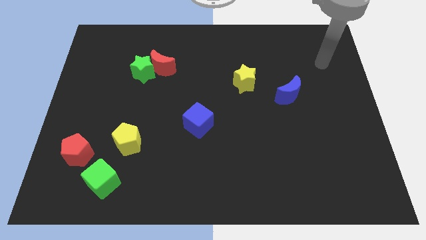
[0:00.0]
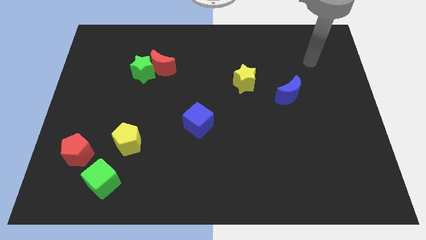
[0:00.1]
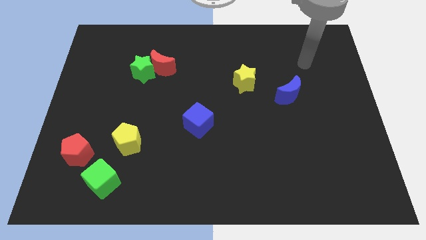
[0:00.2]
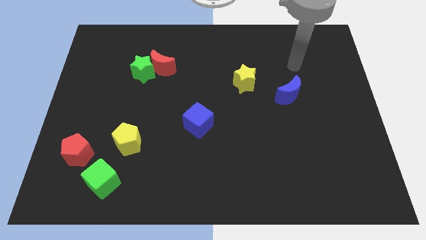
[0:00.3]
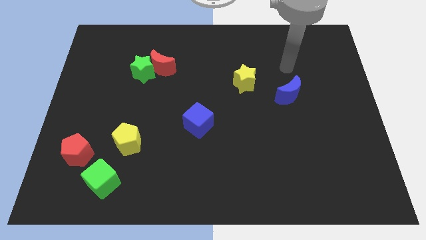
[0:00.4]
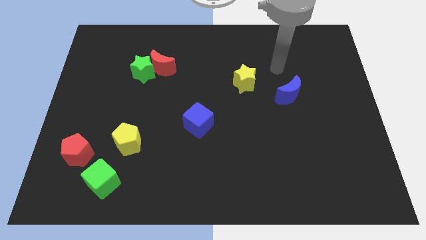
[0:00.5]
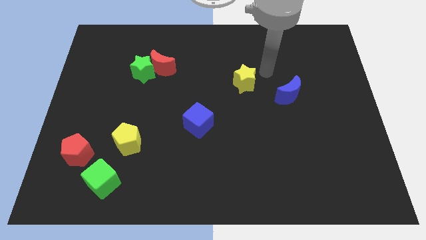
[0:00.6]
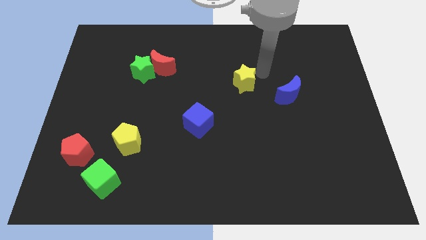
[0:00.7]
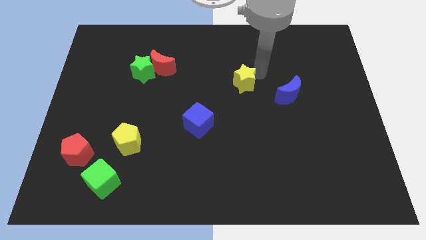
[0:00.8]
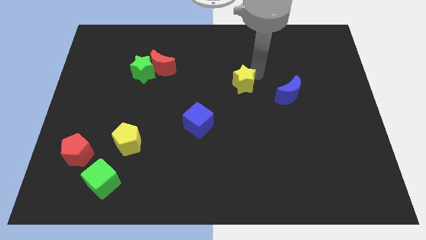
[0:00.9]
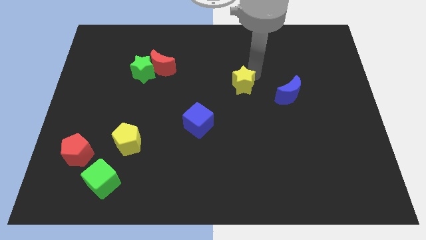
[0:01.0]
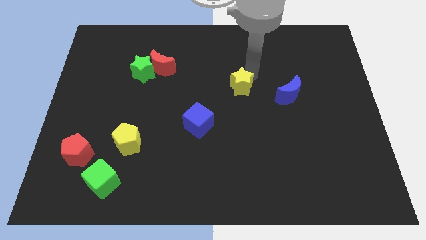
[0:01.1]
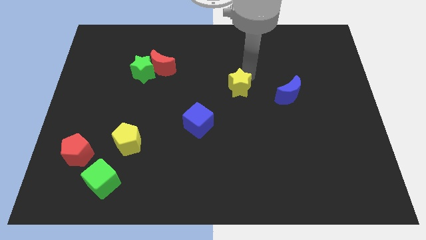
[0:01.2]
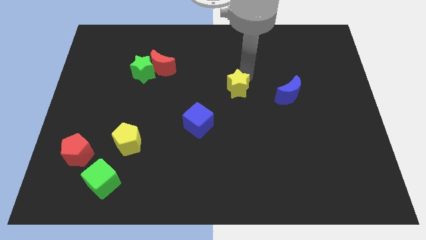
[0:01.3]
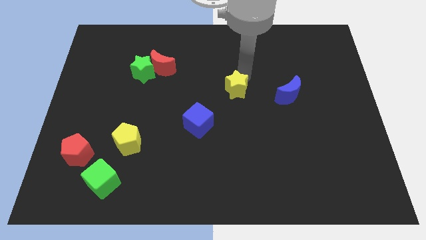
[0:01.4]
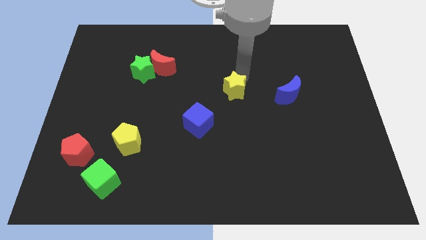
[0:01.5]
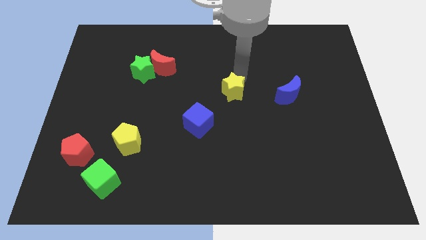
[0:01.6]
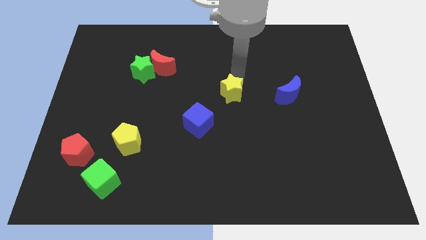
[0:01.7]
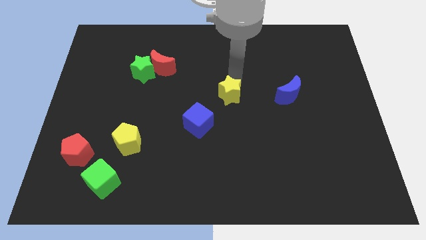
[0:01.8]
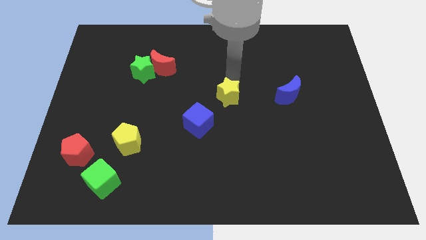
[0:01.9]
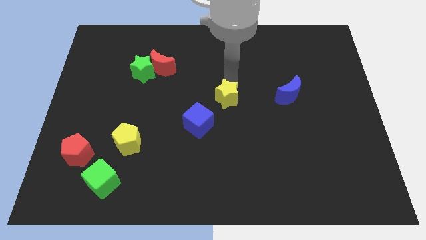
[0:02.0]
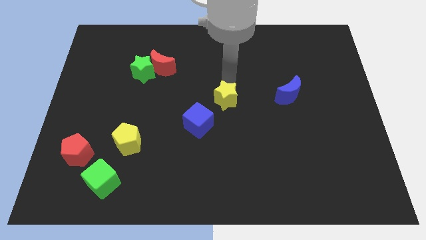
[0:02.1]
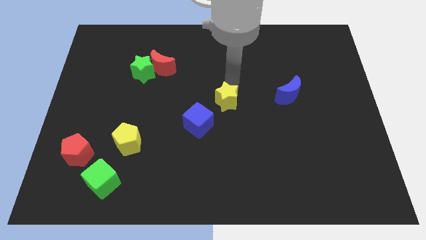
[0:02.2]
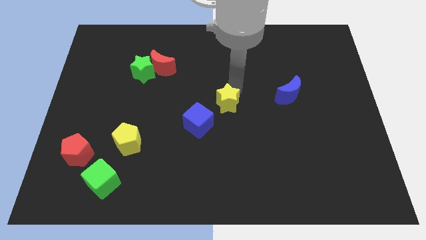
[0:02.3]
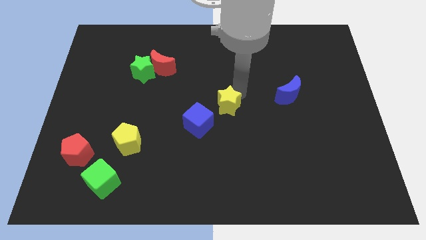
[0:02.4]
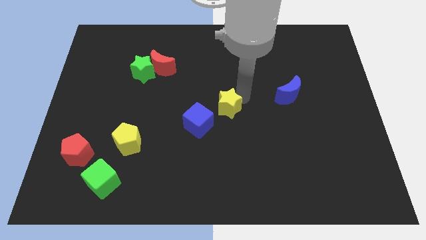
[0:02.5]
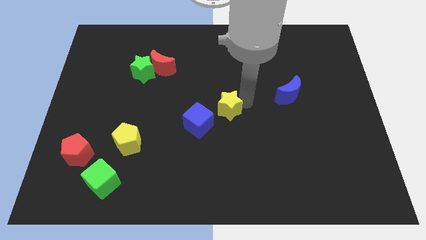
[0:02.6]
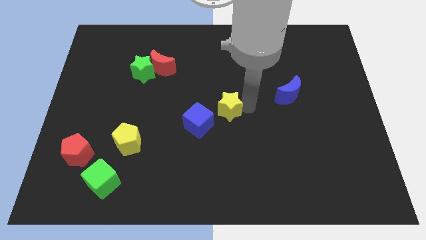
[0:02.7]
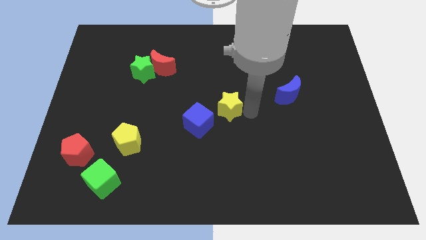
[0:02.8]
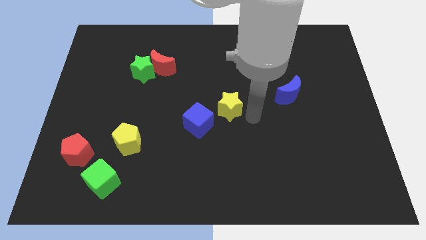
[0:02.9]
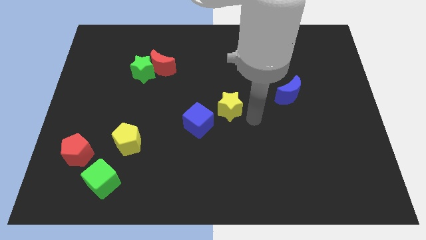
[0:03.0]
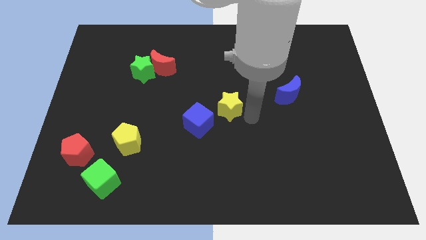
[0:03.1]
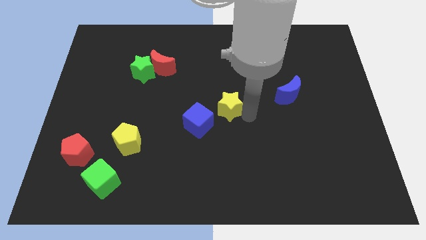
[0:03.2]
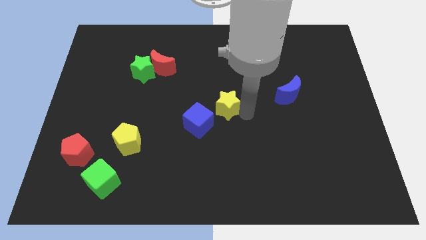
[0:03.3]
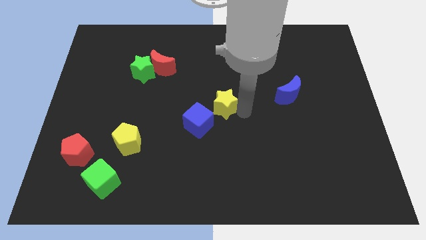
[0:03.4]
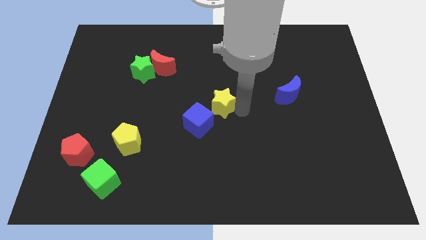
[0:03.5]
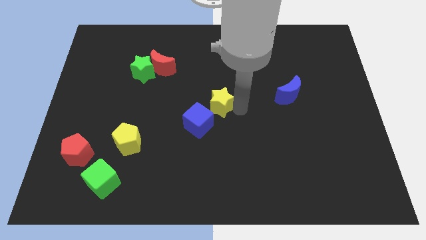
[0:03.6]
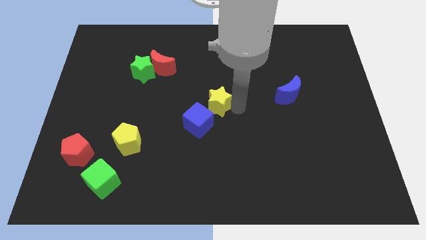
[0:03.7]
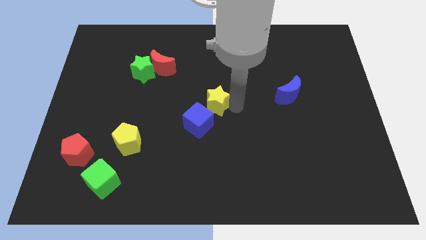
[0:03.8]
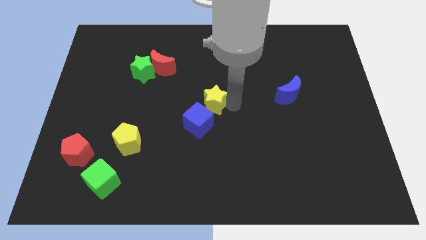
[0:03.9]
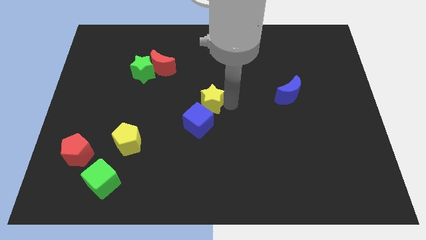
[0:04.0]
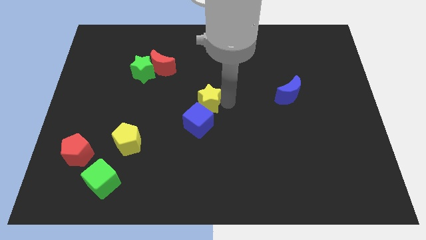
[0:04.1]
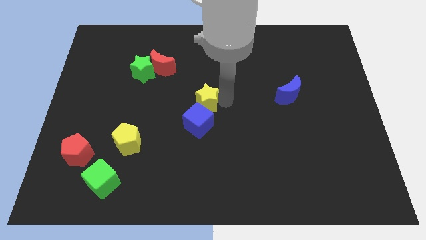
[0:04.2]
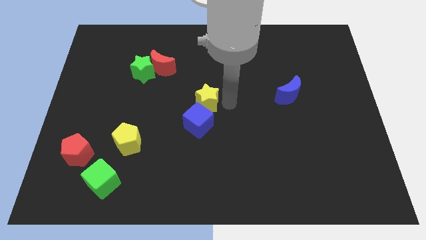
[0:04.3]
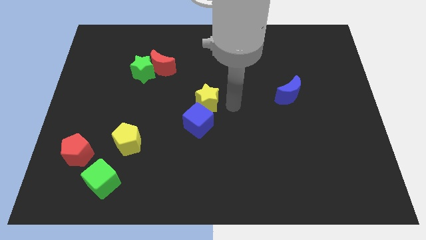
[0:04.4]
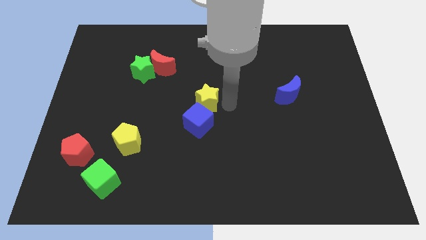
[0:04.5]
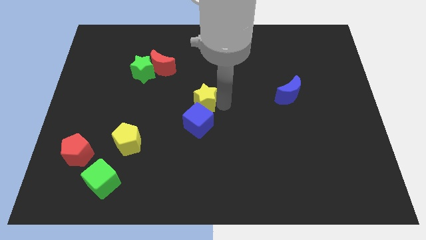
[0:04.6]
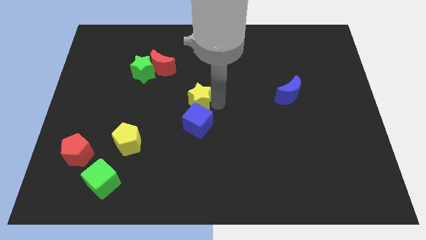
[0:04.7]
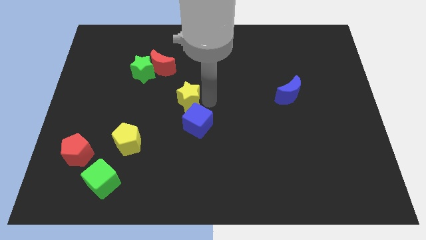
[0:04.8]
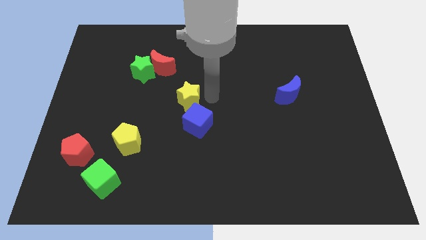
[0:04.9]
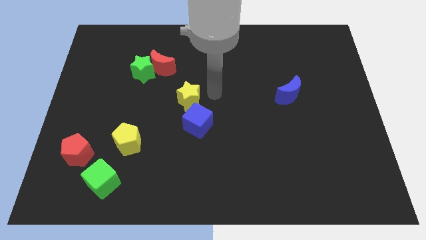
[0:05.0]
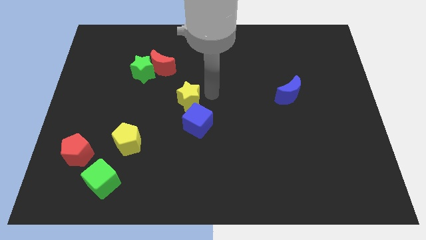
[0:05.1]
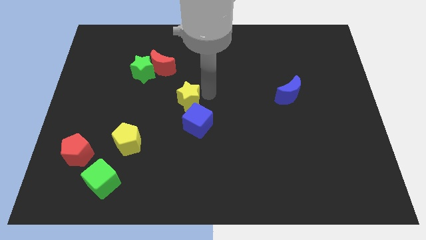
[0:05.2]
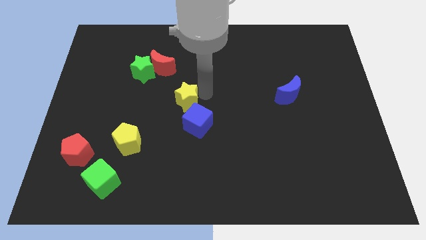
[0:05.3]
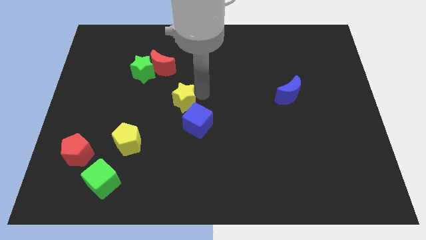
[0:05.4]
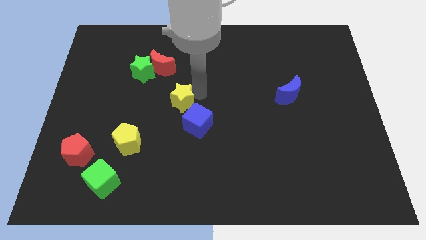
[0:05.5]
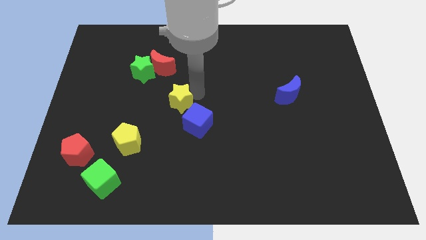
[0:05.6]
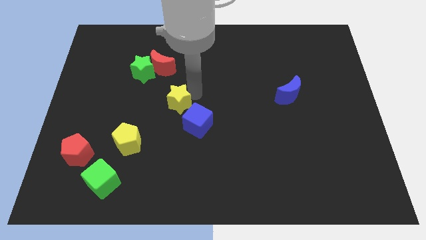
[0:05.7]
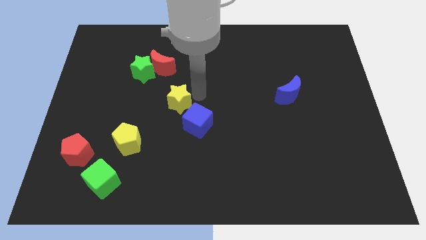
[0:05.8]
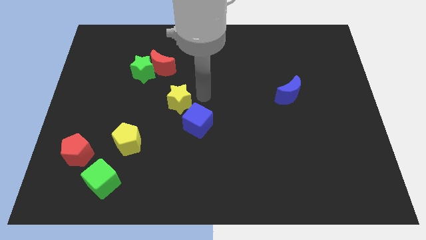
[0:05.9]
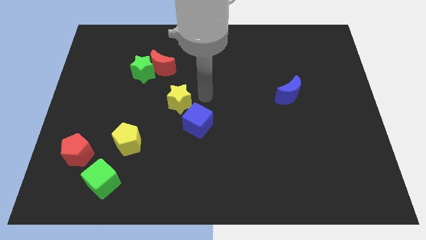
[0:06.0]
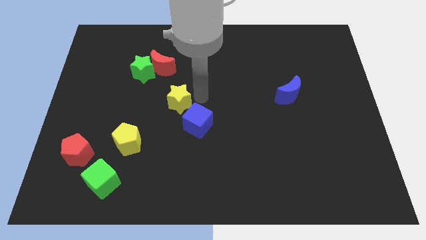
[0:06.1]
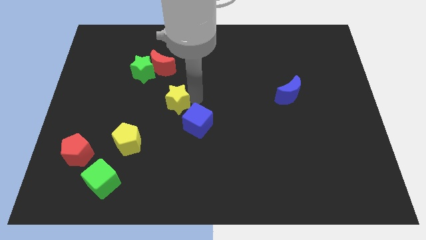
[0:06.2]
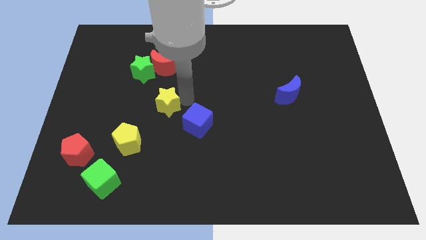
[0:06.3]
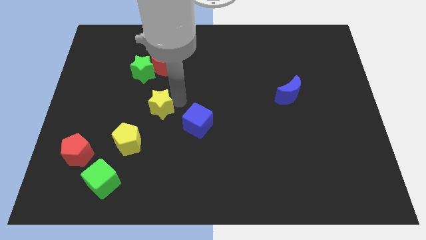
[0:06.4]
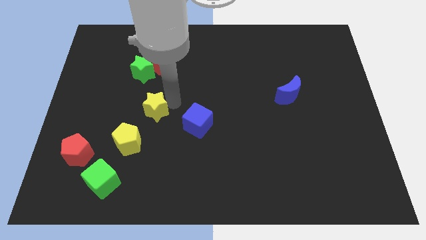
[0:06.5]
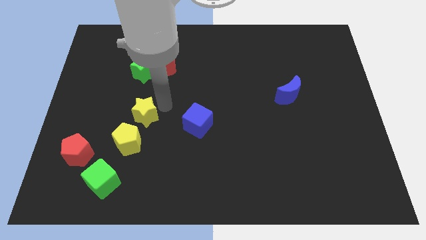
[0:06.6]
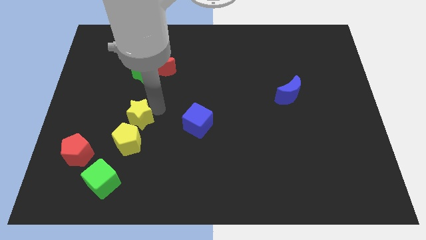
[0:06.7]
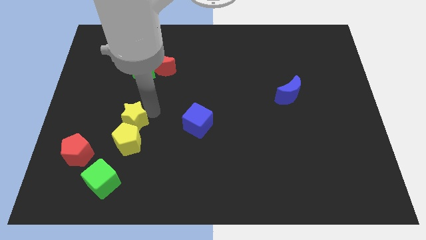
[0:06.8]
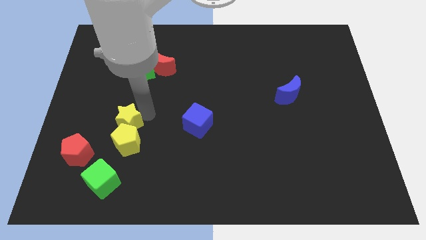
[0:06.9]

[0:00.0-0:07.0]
move the yellow star to the top side of the green cube

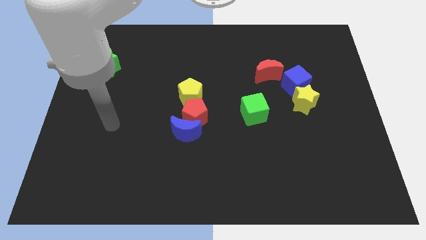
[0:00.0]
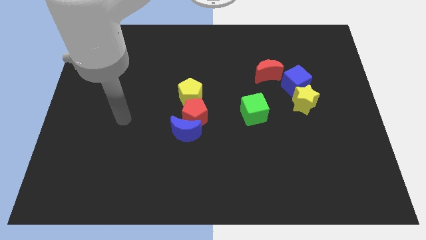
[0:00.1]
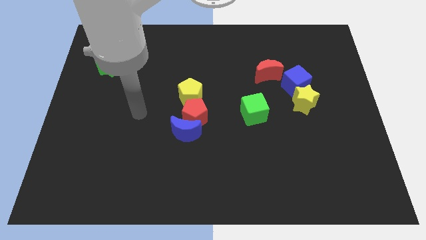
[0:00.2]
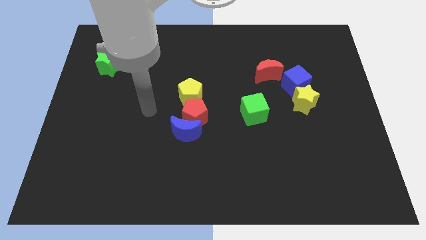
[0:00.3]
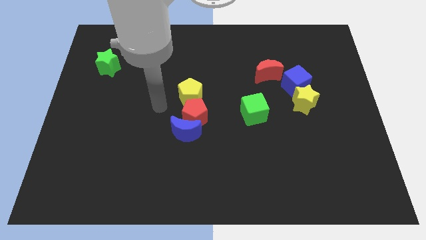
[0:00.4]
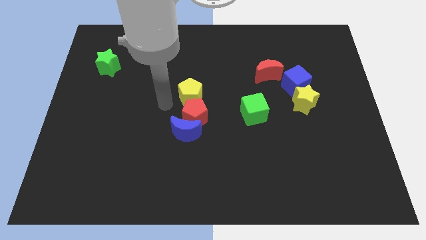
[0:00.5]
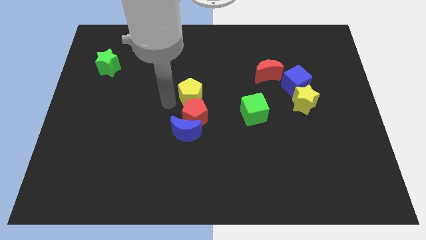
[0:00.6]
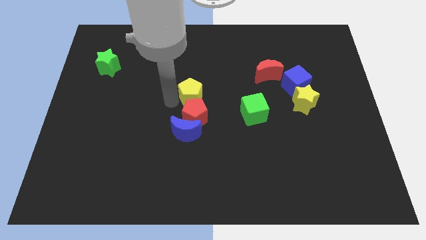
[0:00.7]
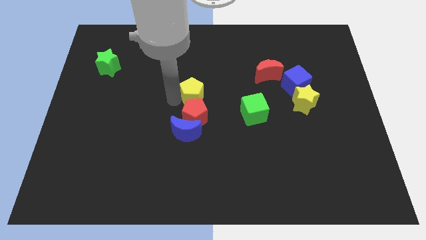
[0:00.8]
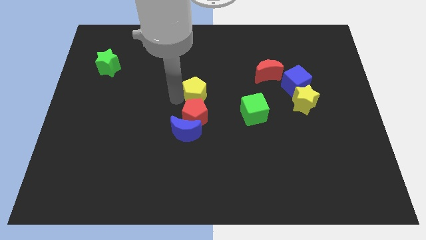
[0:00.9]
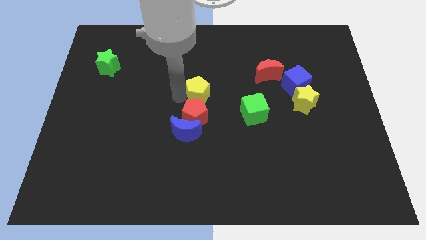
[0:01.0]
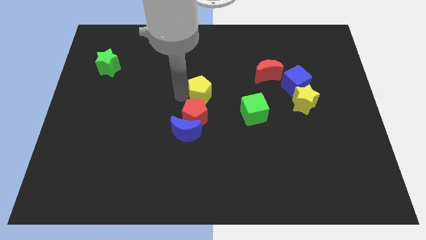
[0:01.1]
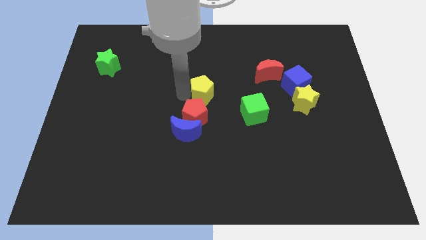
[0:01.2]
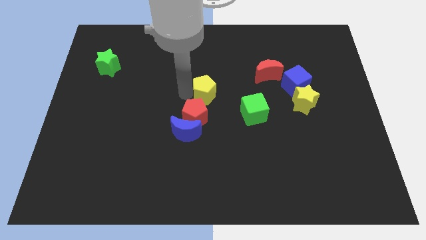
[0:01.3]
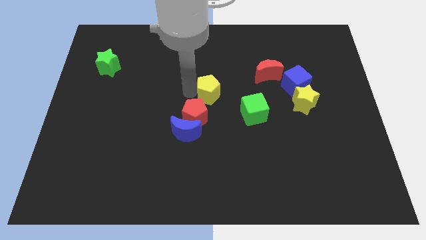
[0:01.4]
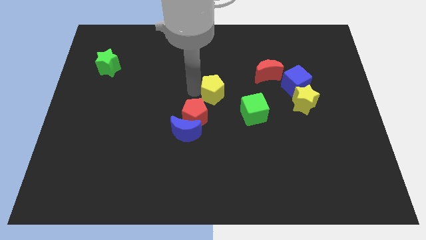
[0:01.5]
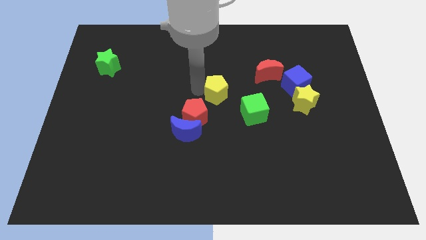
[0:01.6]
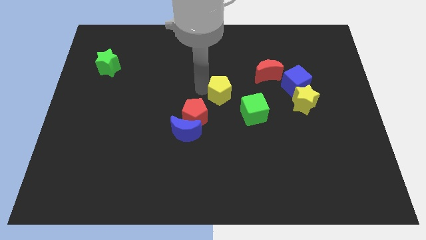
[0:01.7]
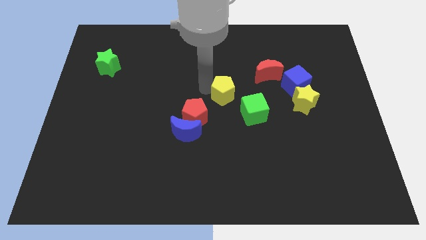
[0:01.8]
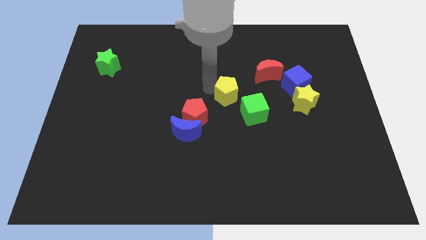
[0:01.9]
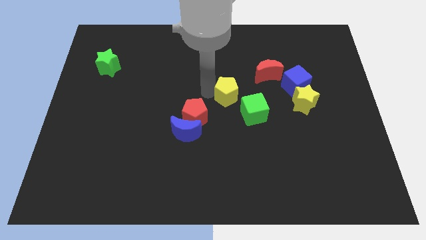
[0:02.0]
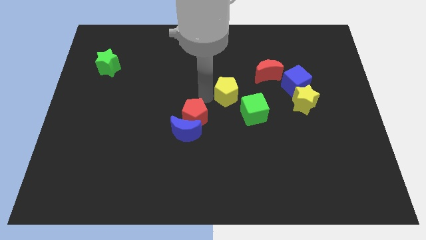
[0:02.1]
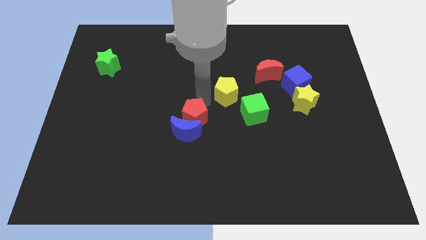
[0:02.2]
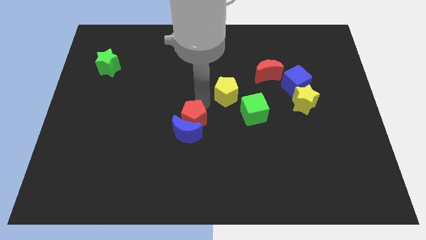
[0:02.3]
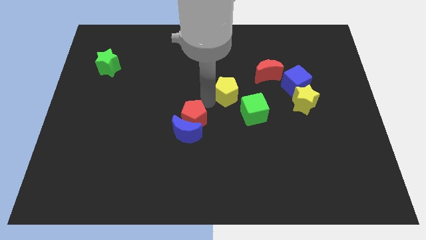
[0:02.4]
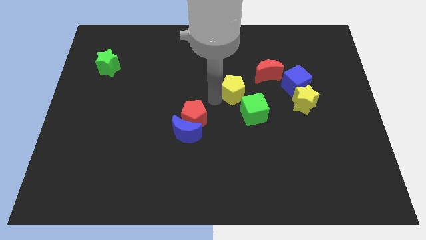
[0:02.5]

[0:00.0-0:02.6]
push the yellow pentagon left of the blue cube
